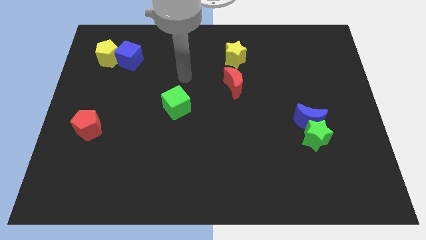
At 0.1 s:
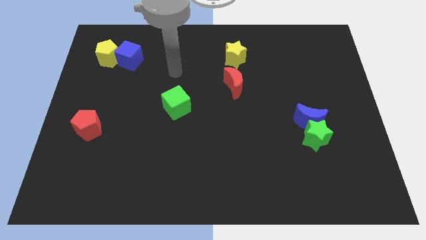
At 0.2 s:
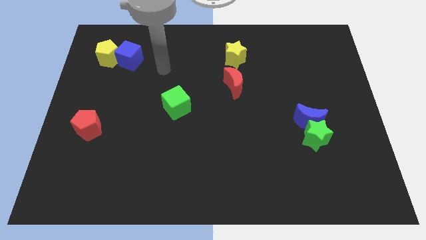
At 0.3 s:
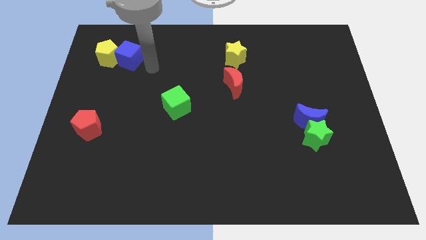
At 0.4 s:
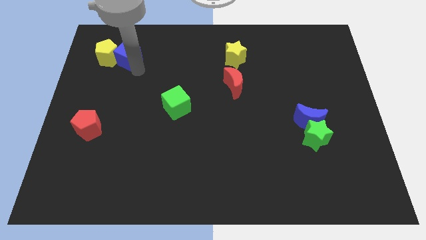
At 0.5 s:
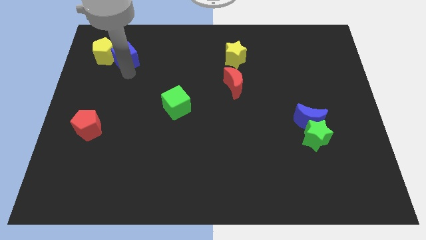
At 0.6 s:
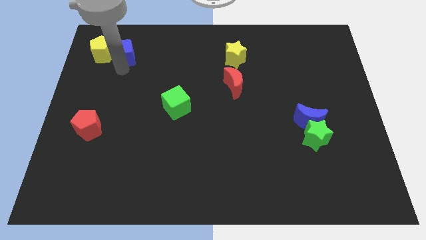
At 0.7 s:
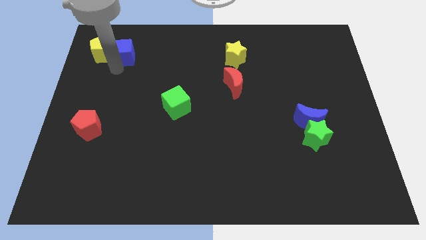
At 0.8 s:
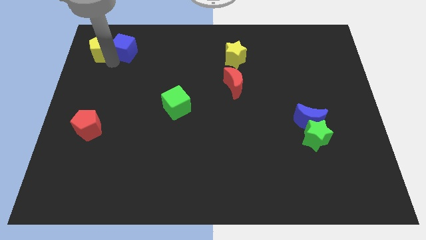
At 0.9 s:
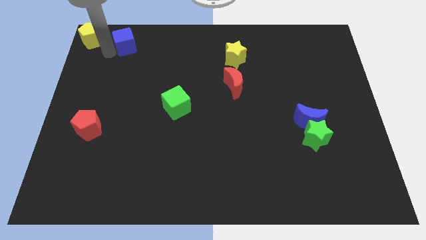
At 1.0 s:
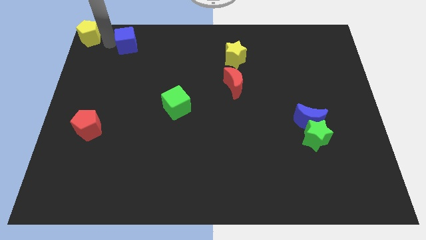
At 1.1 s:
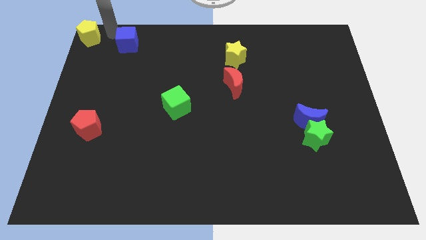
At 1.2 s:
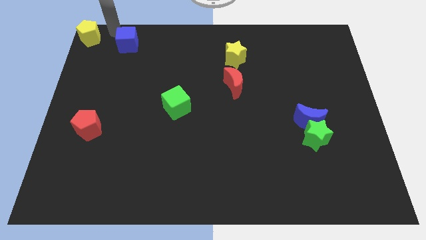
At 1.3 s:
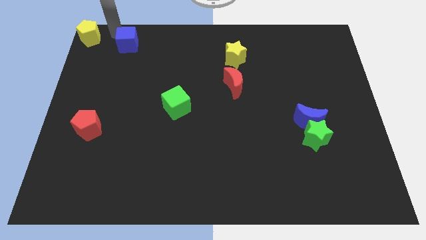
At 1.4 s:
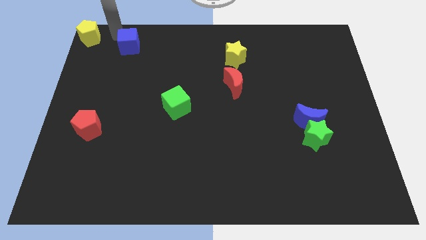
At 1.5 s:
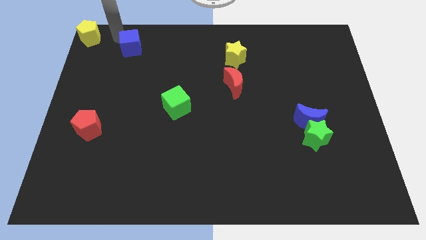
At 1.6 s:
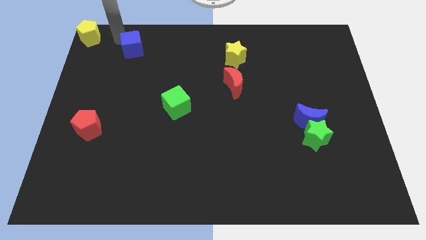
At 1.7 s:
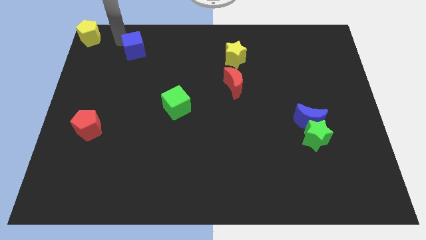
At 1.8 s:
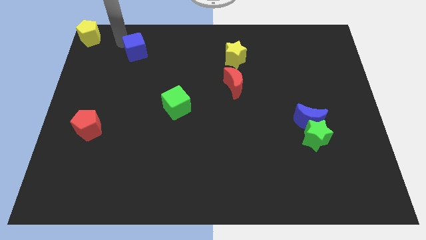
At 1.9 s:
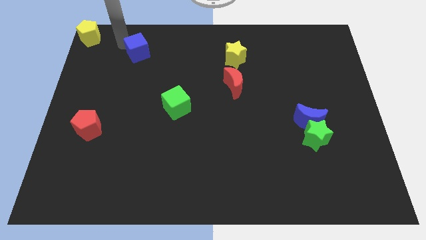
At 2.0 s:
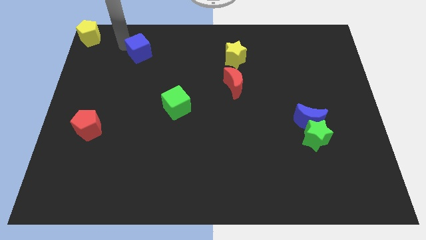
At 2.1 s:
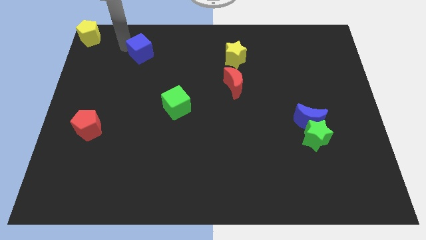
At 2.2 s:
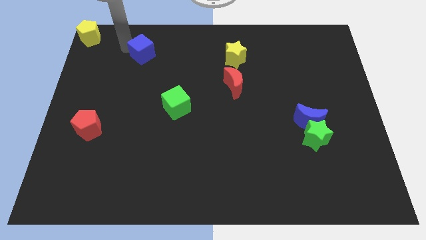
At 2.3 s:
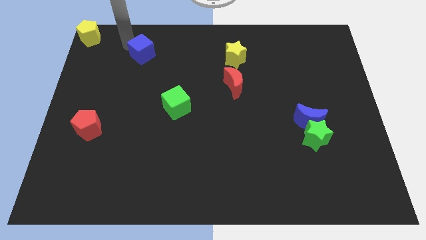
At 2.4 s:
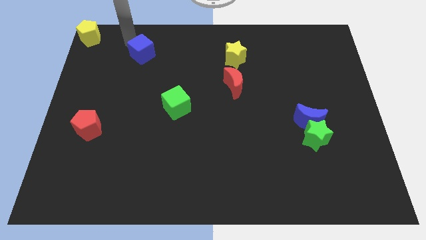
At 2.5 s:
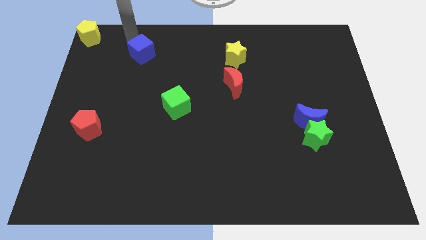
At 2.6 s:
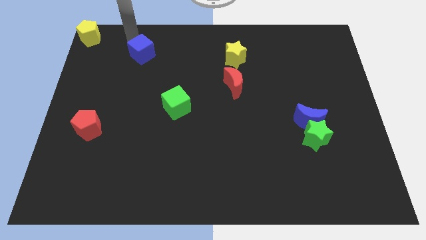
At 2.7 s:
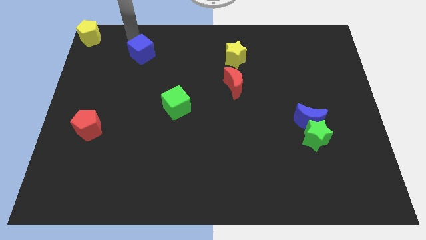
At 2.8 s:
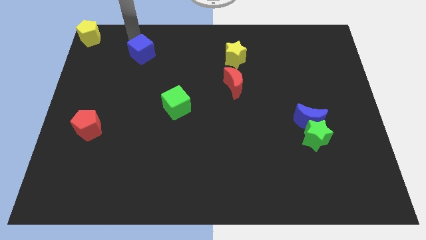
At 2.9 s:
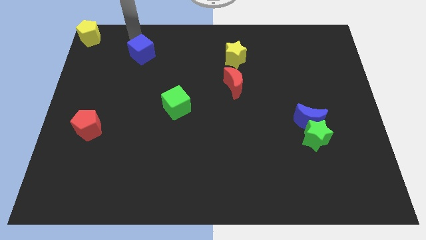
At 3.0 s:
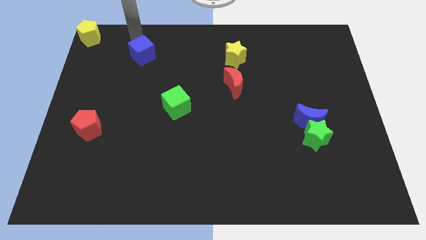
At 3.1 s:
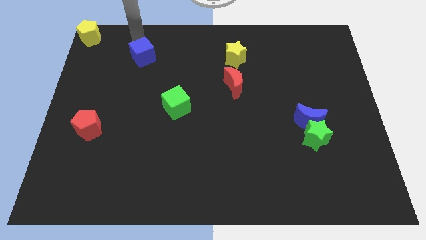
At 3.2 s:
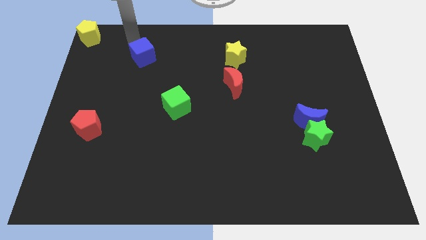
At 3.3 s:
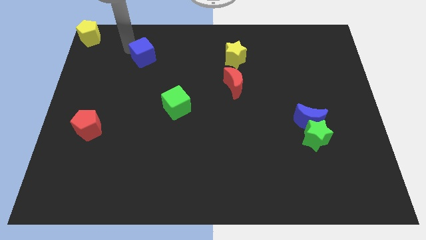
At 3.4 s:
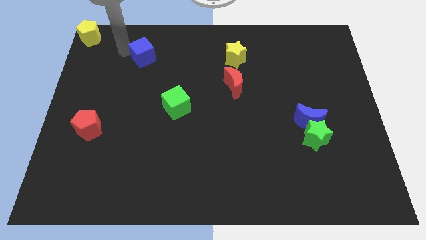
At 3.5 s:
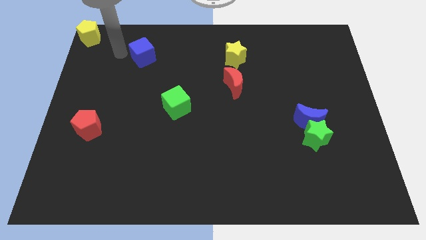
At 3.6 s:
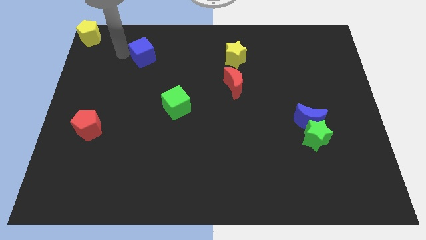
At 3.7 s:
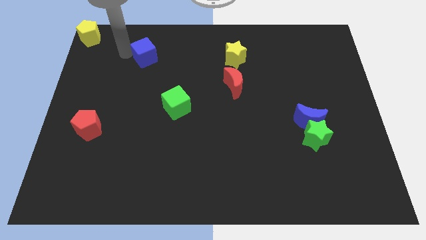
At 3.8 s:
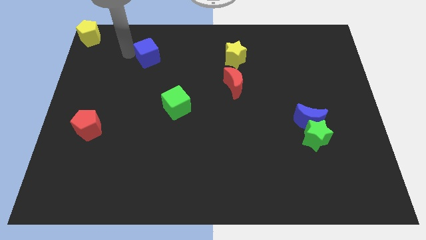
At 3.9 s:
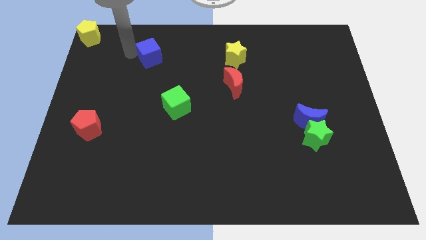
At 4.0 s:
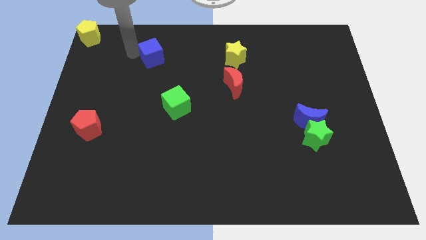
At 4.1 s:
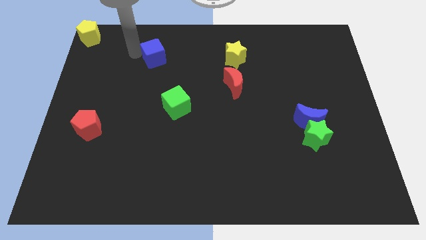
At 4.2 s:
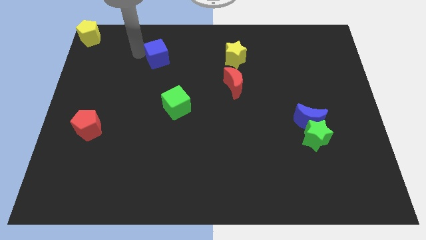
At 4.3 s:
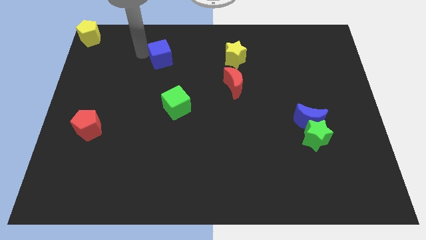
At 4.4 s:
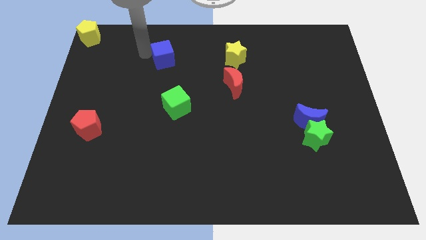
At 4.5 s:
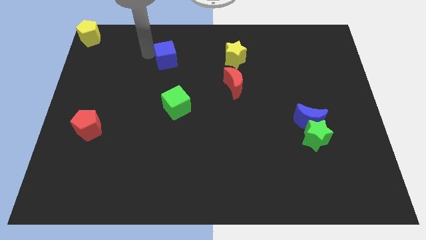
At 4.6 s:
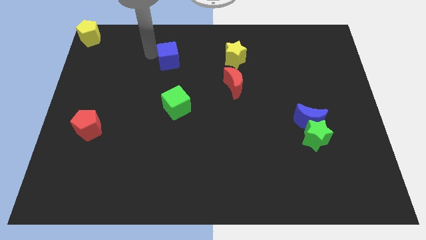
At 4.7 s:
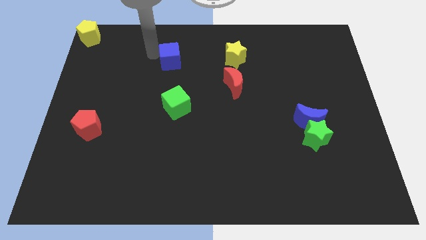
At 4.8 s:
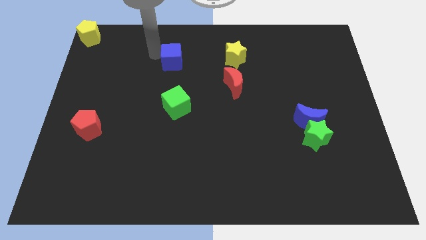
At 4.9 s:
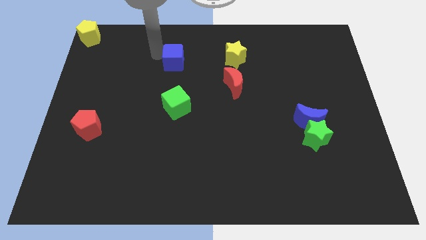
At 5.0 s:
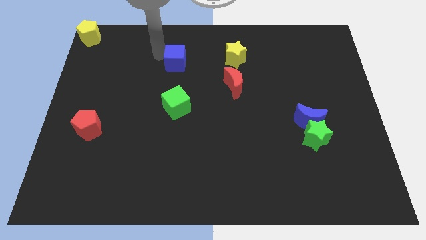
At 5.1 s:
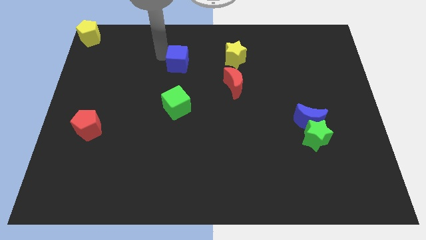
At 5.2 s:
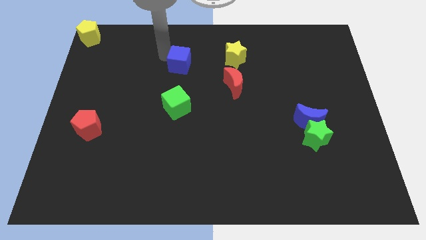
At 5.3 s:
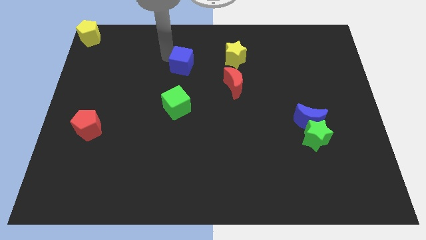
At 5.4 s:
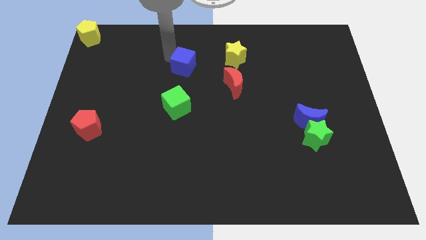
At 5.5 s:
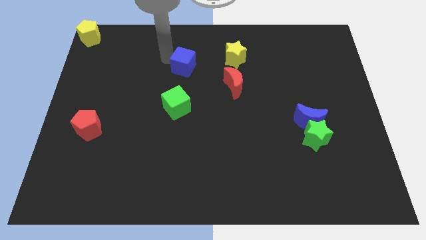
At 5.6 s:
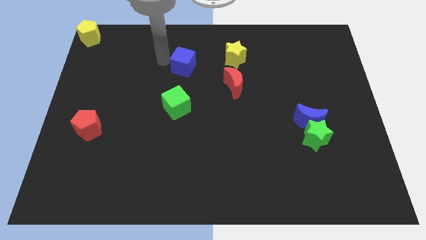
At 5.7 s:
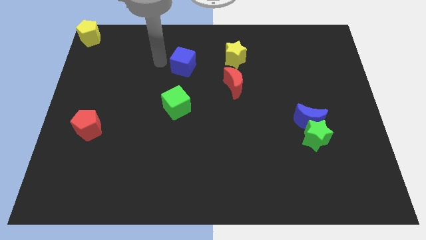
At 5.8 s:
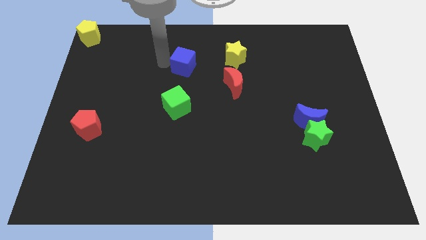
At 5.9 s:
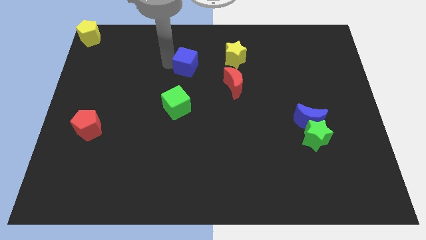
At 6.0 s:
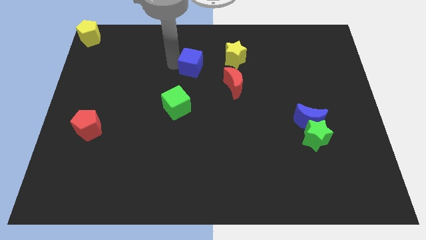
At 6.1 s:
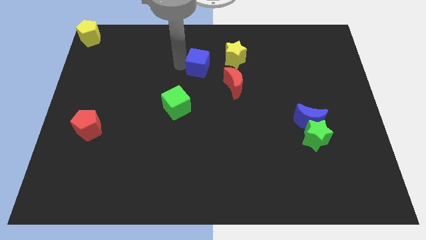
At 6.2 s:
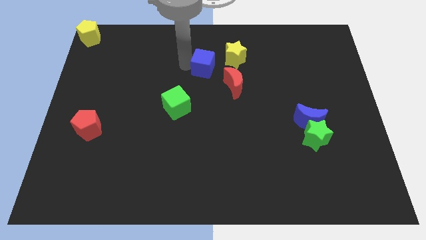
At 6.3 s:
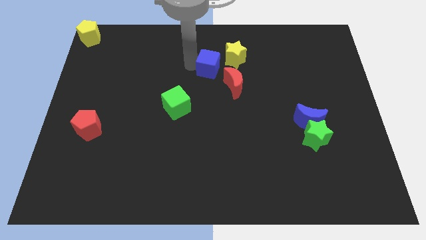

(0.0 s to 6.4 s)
move the blue cube right

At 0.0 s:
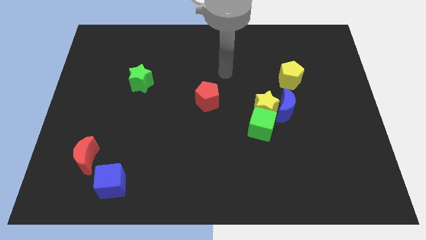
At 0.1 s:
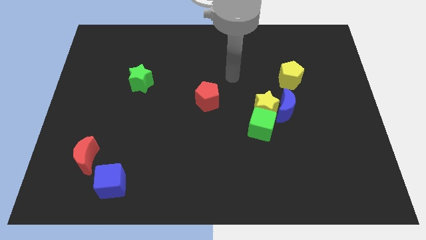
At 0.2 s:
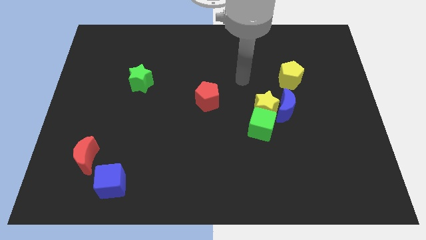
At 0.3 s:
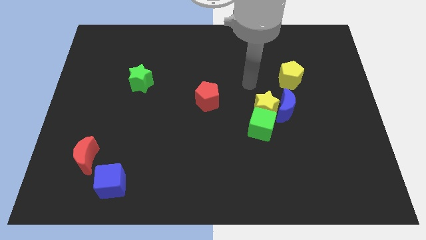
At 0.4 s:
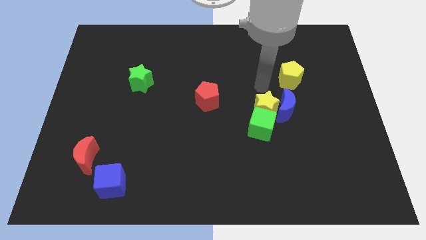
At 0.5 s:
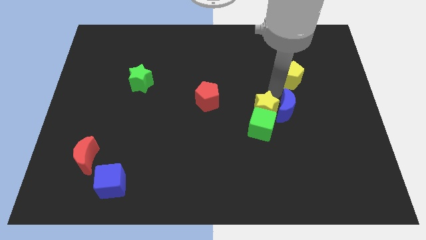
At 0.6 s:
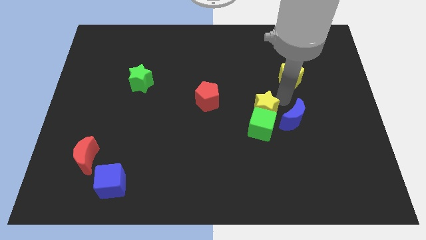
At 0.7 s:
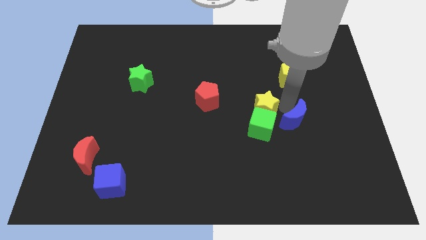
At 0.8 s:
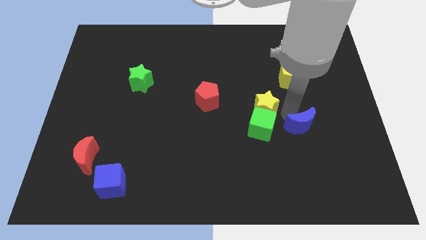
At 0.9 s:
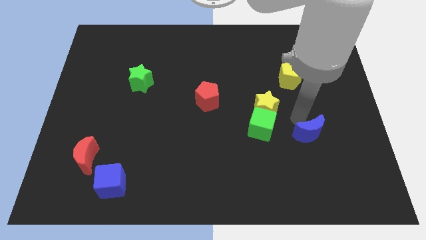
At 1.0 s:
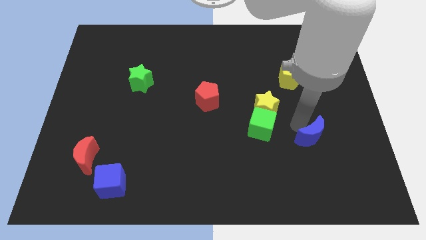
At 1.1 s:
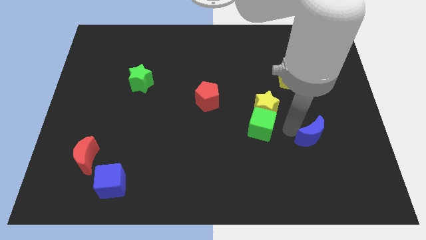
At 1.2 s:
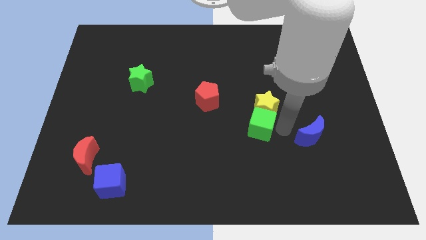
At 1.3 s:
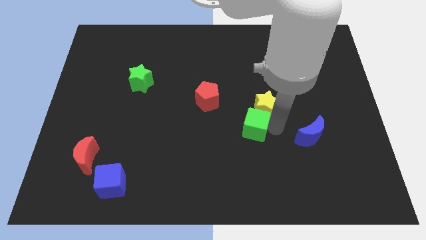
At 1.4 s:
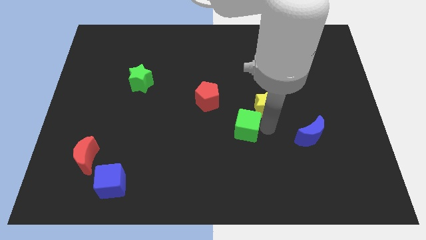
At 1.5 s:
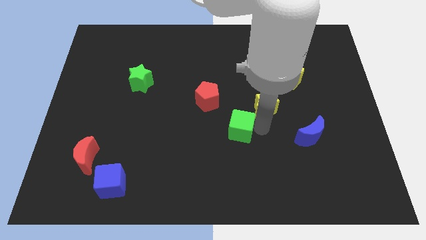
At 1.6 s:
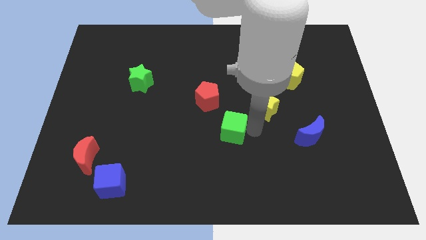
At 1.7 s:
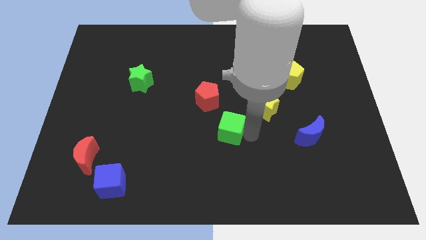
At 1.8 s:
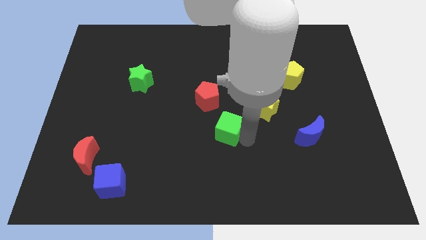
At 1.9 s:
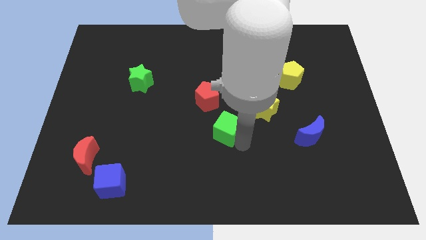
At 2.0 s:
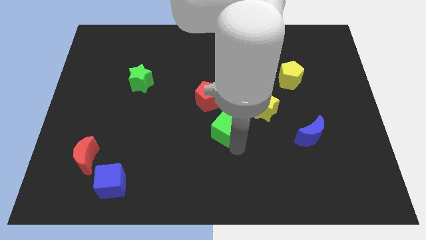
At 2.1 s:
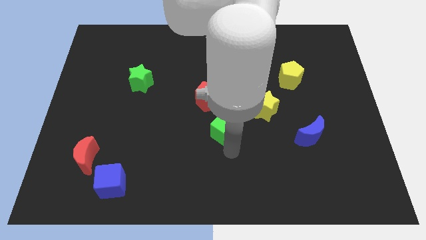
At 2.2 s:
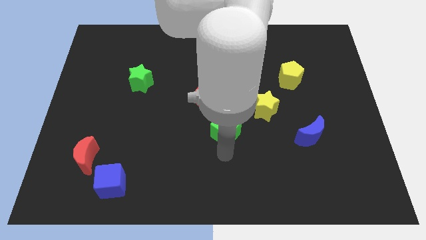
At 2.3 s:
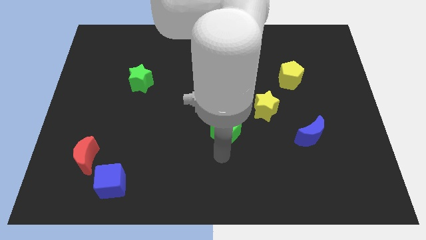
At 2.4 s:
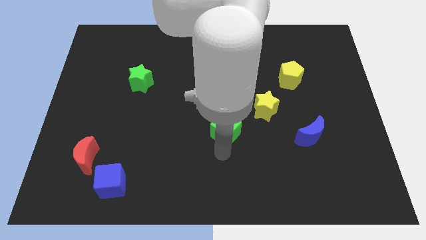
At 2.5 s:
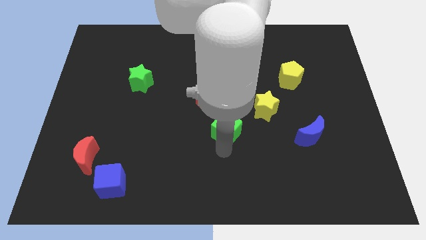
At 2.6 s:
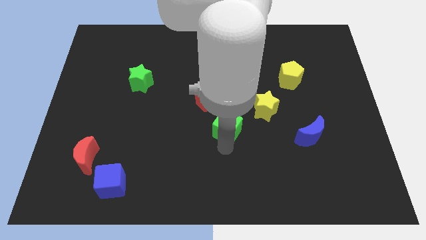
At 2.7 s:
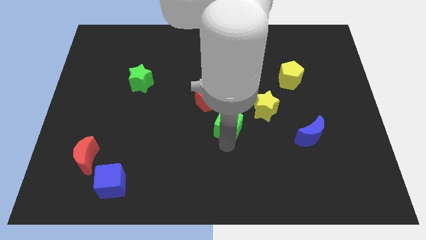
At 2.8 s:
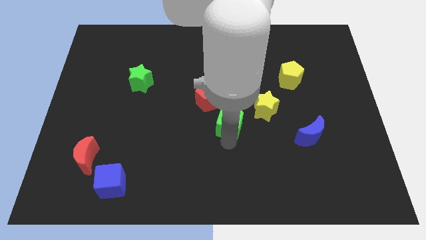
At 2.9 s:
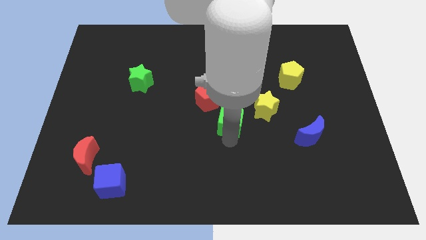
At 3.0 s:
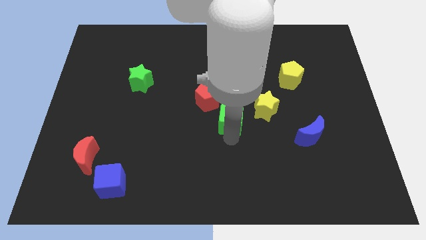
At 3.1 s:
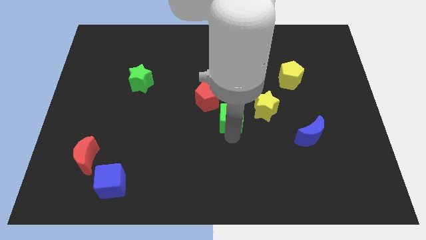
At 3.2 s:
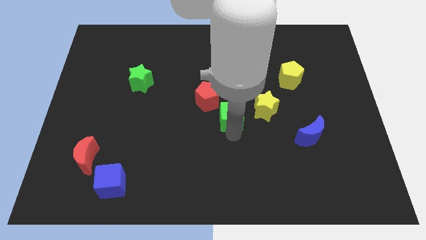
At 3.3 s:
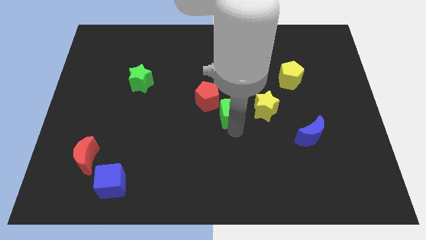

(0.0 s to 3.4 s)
slightly move the green cube up and left
